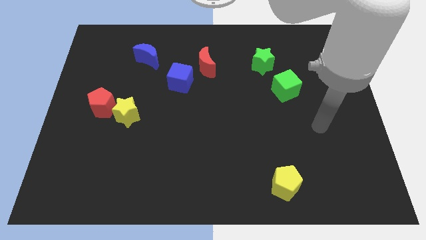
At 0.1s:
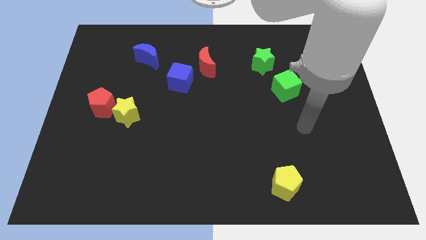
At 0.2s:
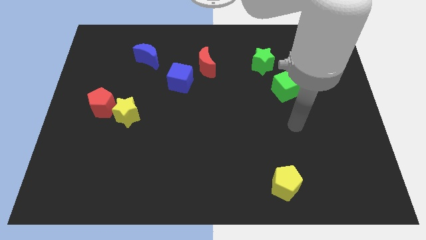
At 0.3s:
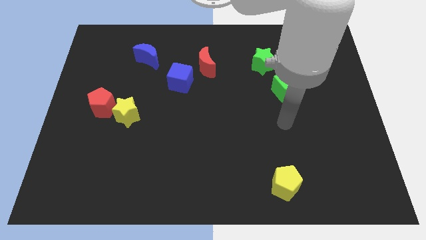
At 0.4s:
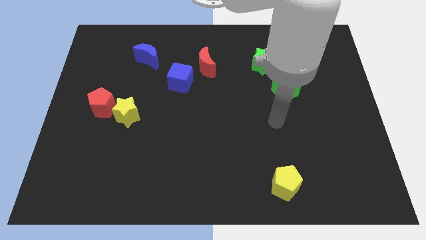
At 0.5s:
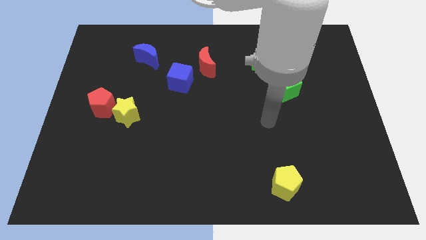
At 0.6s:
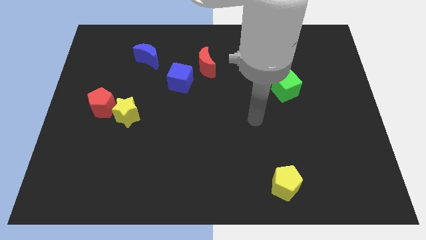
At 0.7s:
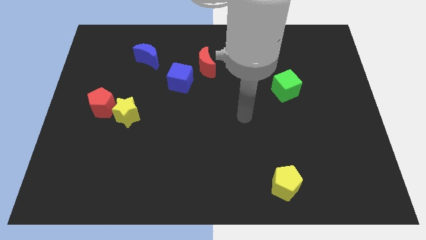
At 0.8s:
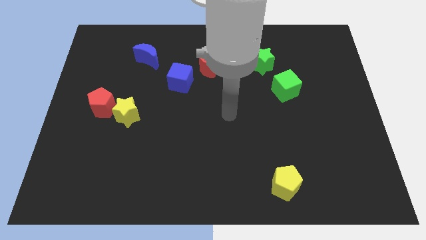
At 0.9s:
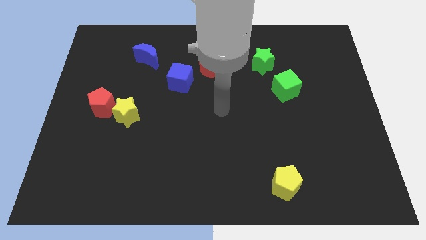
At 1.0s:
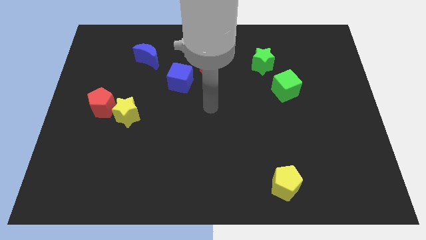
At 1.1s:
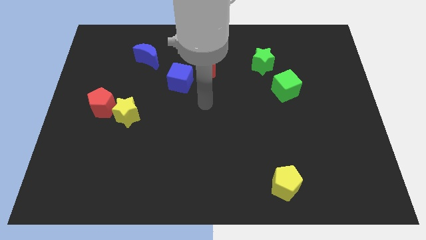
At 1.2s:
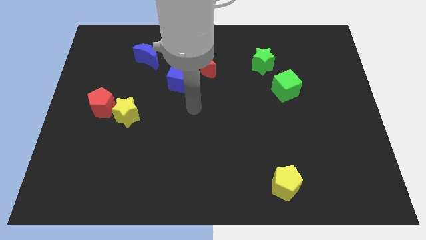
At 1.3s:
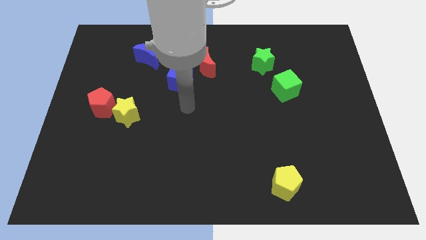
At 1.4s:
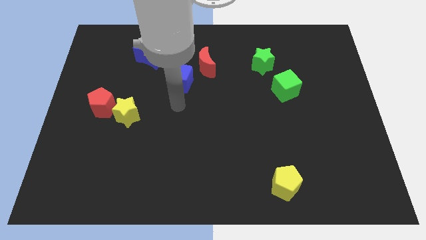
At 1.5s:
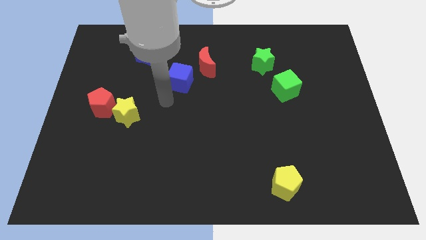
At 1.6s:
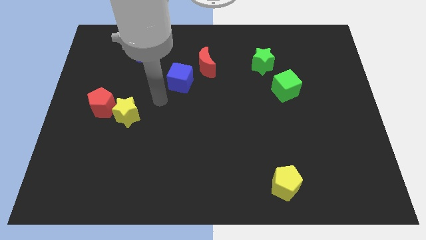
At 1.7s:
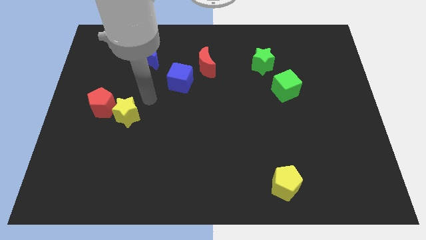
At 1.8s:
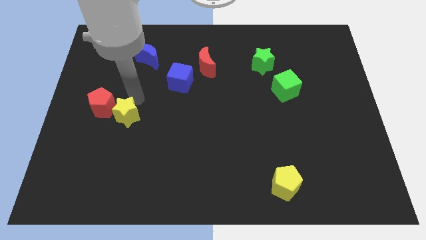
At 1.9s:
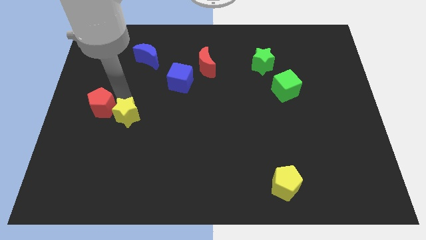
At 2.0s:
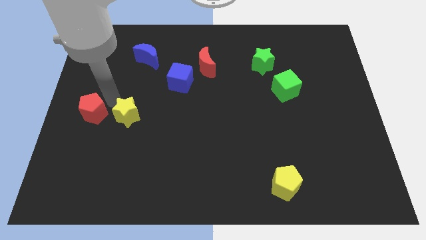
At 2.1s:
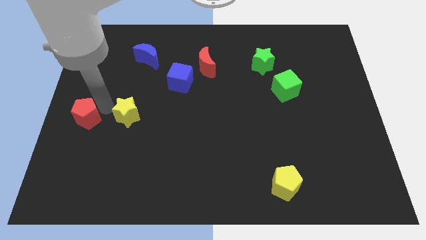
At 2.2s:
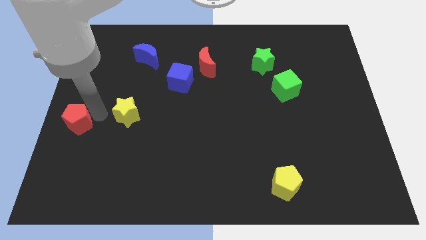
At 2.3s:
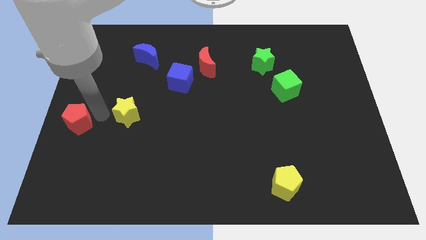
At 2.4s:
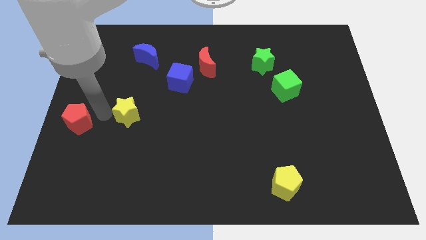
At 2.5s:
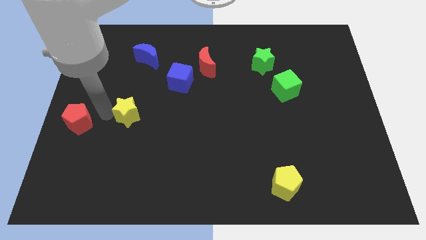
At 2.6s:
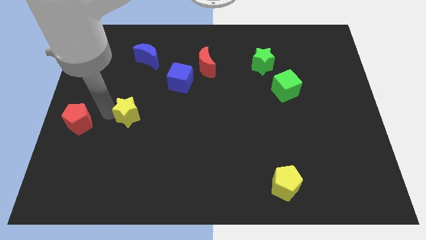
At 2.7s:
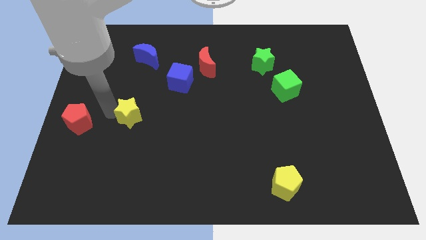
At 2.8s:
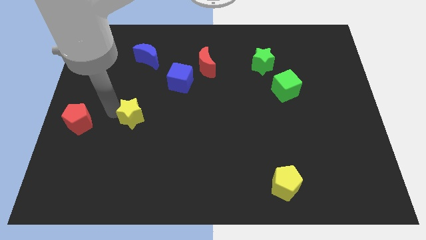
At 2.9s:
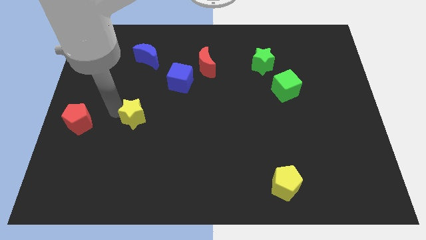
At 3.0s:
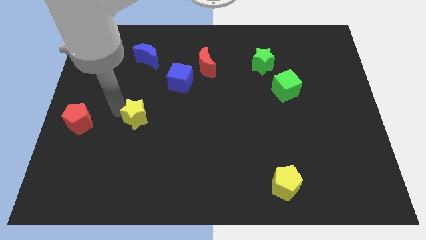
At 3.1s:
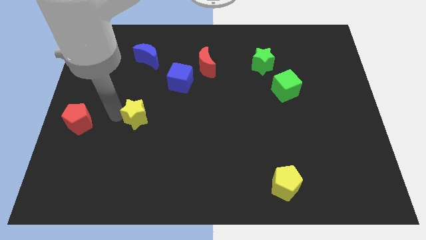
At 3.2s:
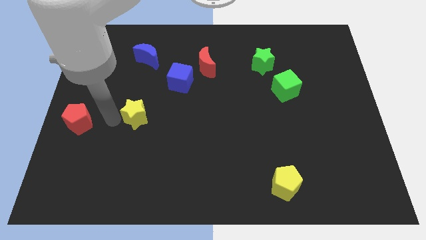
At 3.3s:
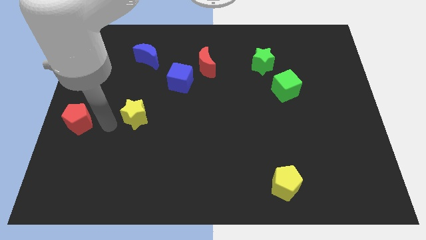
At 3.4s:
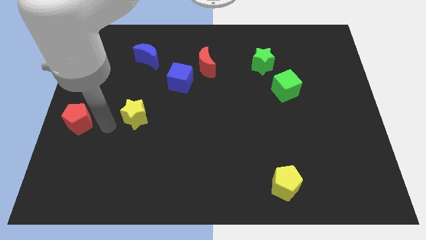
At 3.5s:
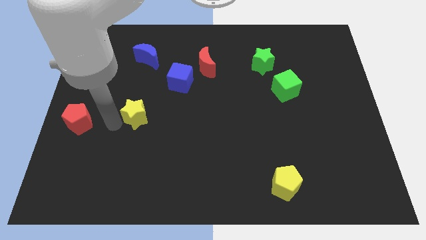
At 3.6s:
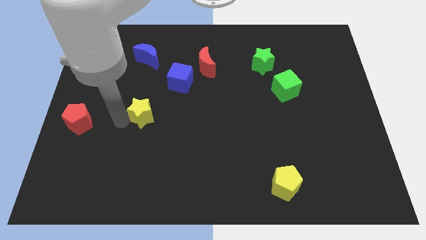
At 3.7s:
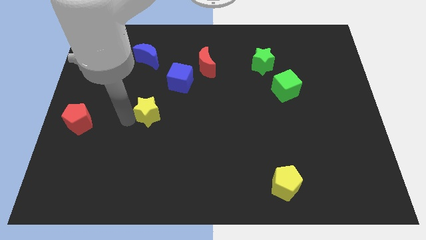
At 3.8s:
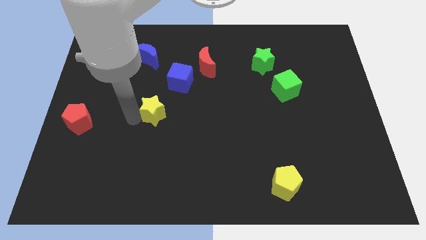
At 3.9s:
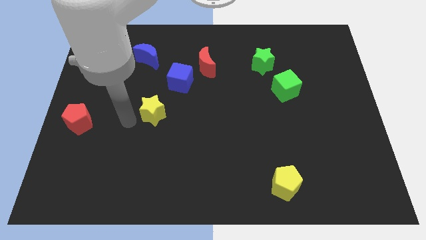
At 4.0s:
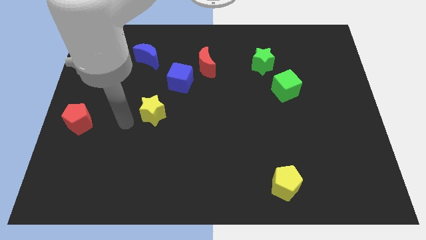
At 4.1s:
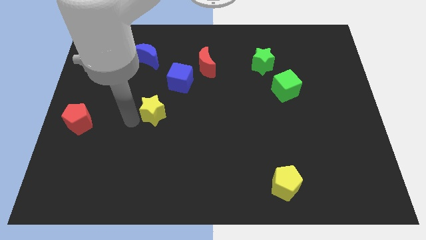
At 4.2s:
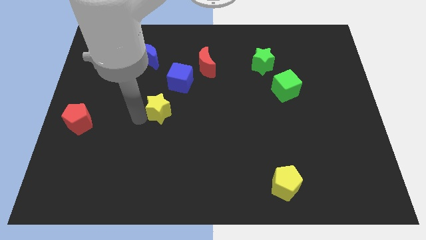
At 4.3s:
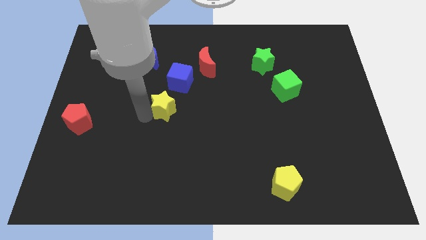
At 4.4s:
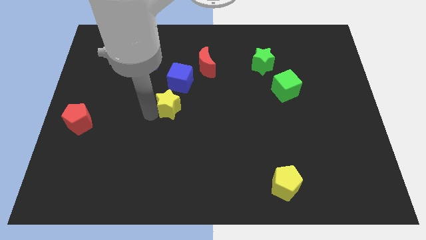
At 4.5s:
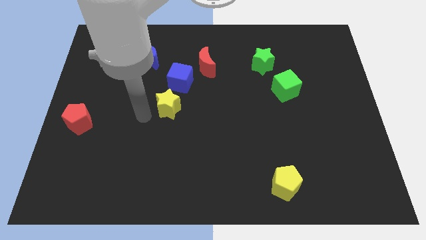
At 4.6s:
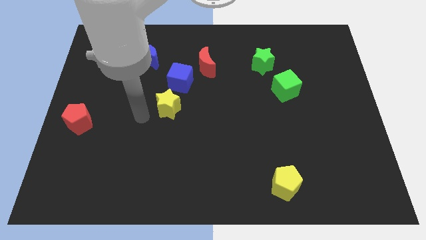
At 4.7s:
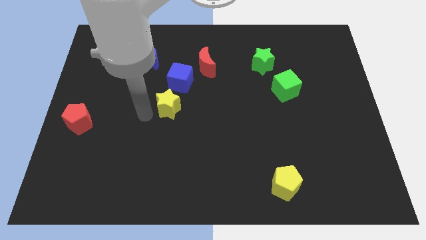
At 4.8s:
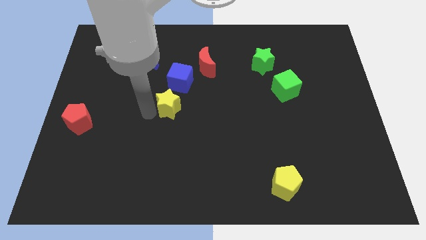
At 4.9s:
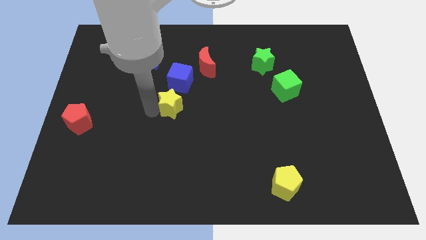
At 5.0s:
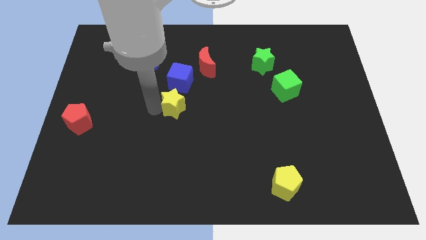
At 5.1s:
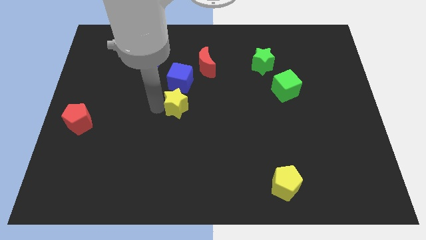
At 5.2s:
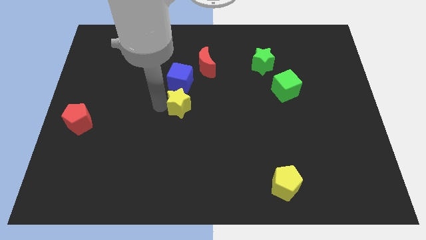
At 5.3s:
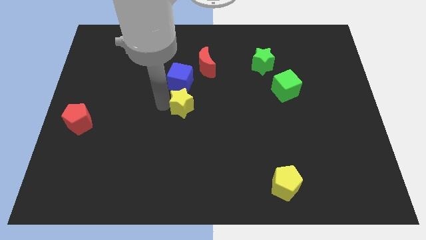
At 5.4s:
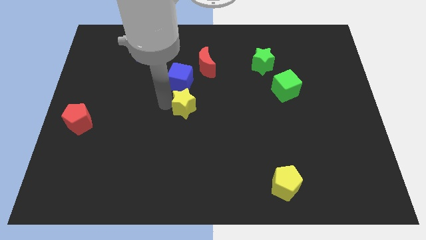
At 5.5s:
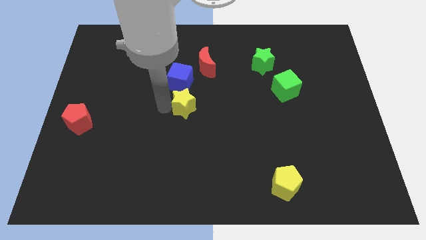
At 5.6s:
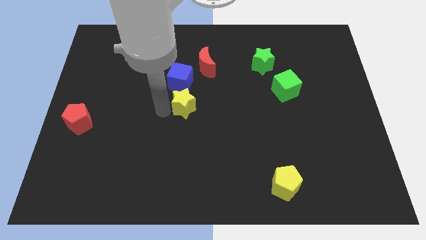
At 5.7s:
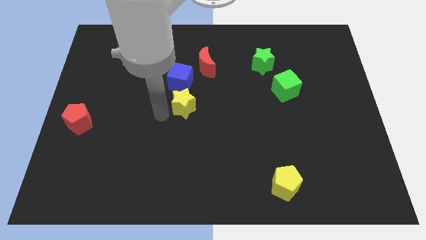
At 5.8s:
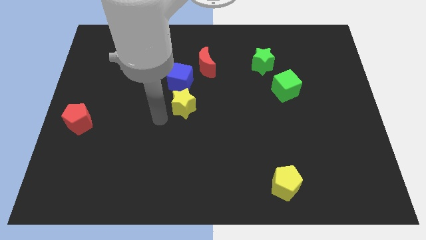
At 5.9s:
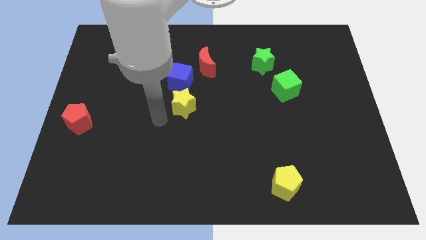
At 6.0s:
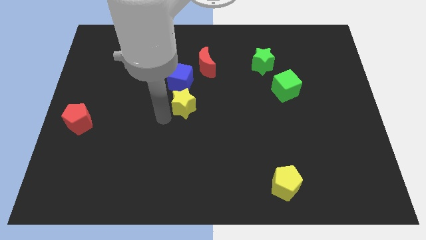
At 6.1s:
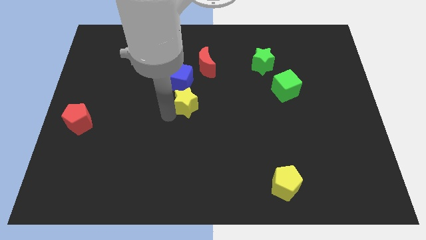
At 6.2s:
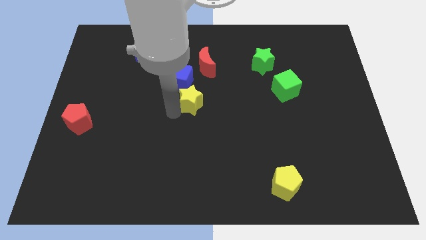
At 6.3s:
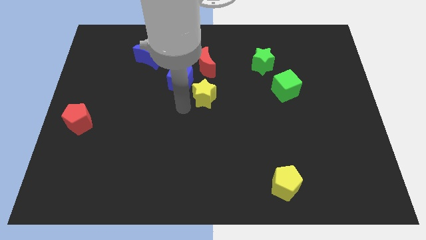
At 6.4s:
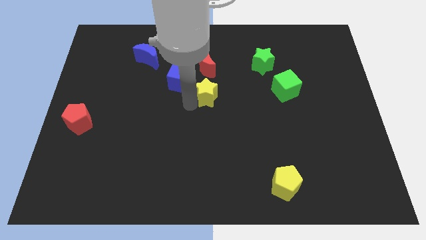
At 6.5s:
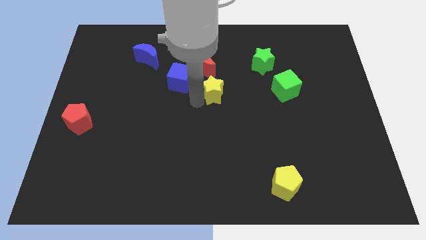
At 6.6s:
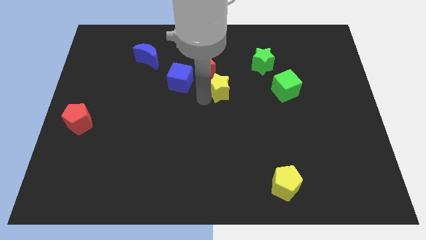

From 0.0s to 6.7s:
put the yellow star diagonally down and to the right of the red moon

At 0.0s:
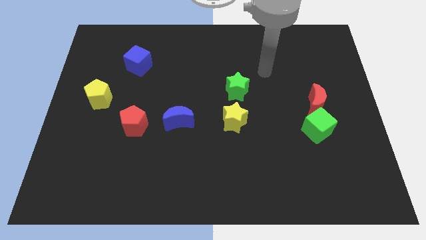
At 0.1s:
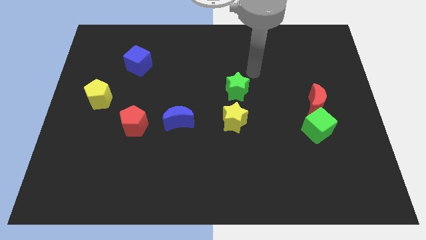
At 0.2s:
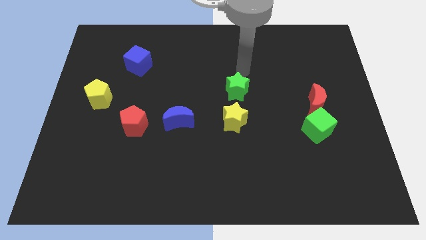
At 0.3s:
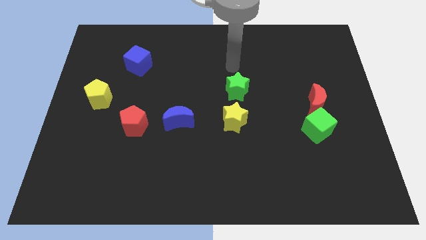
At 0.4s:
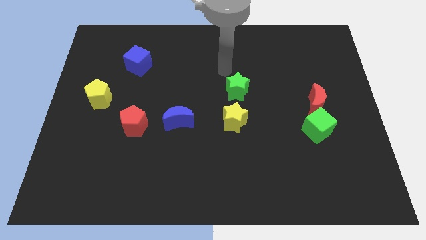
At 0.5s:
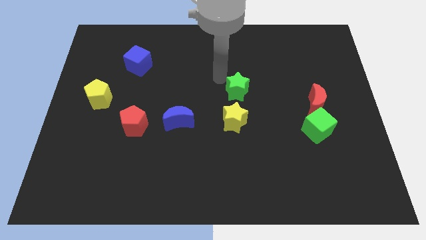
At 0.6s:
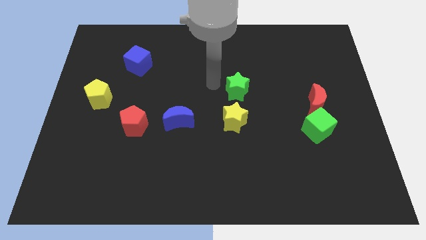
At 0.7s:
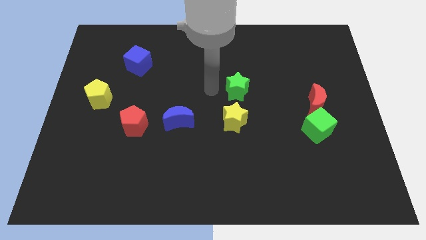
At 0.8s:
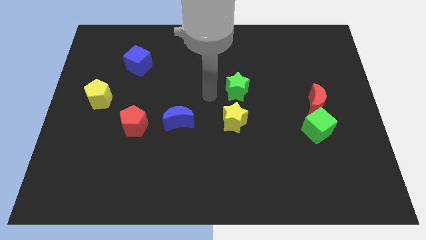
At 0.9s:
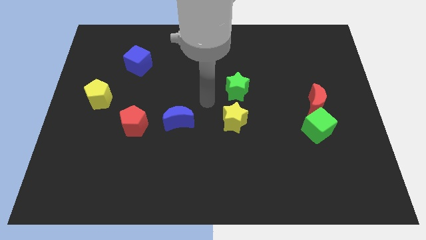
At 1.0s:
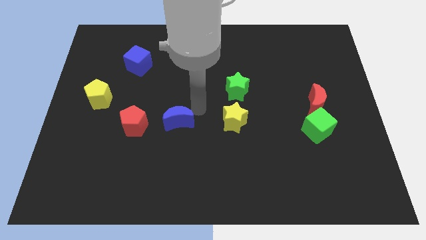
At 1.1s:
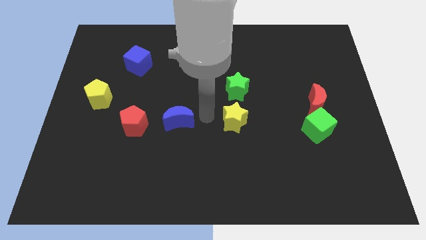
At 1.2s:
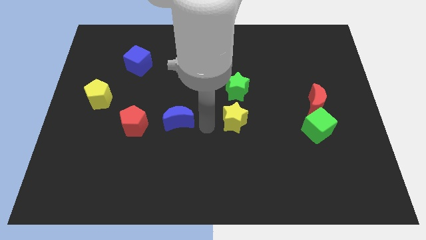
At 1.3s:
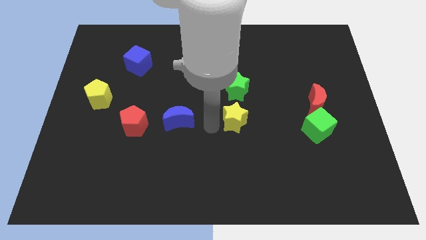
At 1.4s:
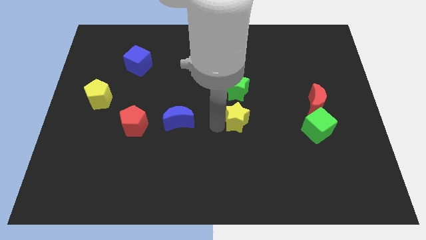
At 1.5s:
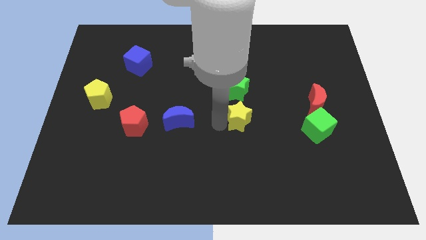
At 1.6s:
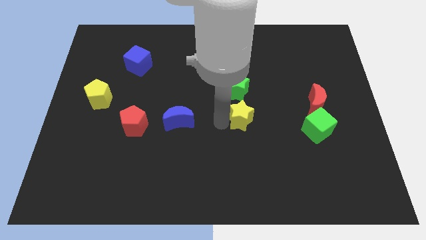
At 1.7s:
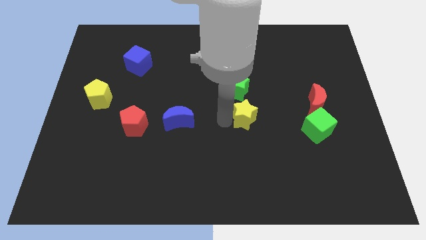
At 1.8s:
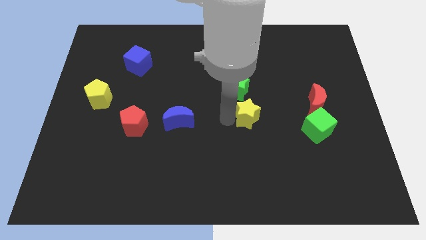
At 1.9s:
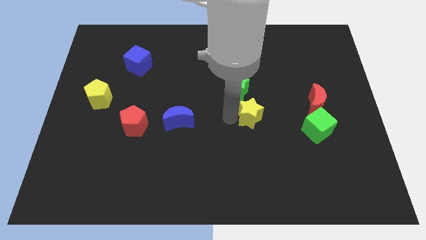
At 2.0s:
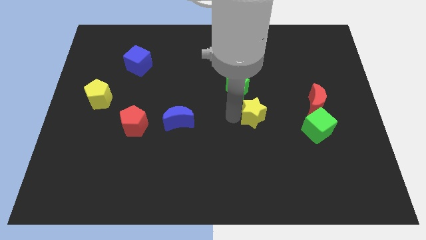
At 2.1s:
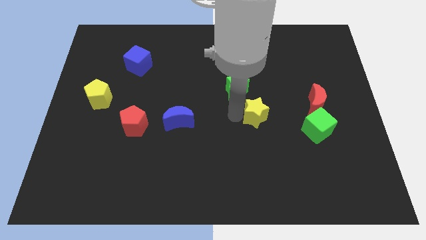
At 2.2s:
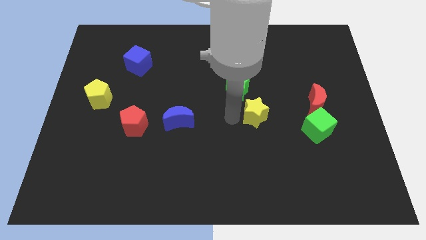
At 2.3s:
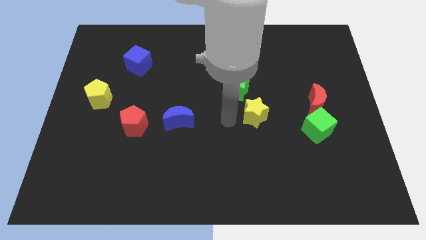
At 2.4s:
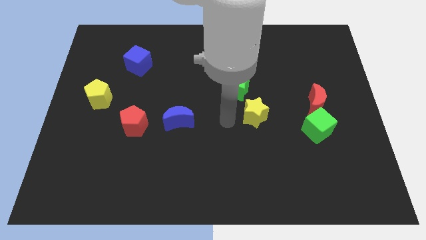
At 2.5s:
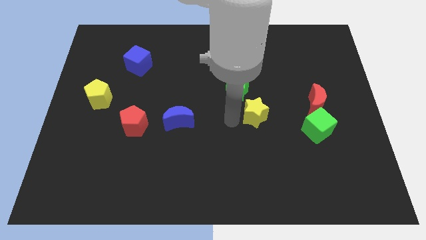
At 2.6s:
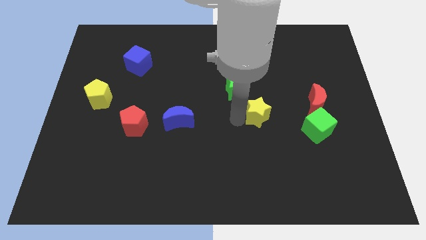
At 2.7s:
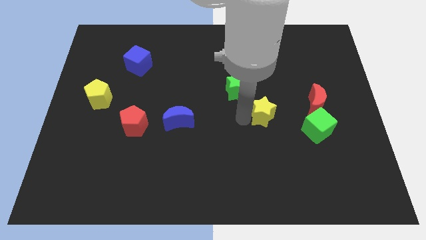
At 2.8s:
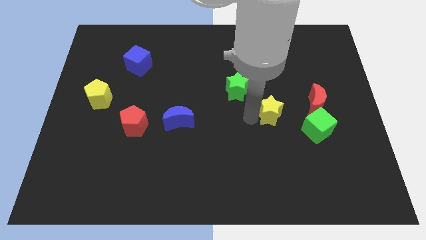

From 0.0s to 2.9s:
push the yellow star to the top left of the green cube
